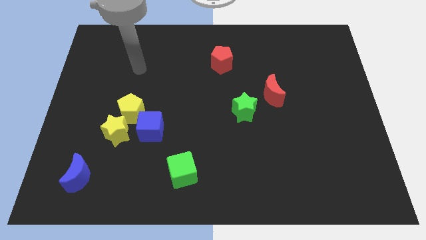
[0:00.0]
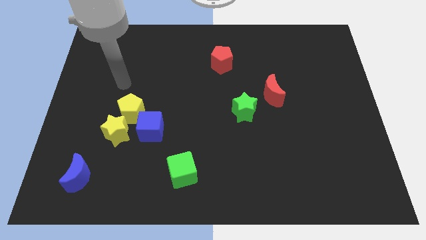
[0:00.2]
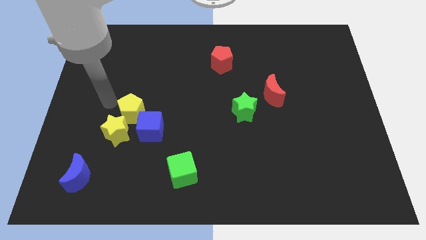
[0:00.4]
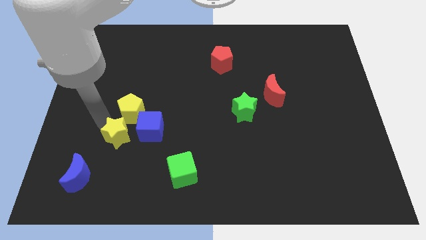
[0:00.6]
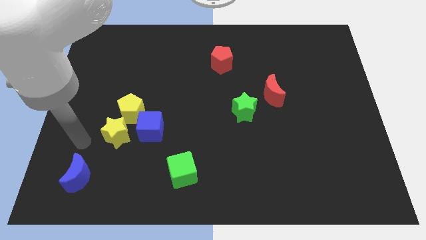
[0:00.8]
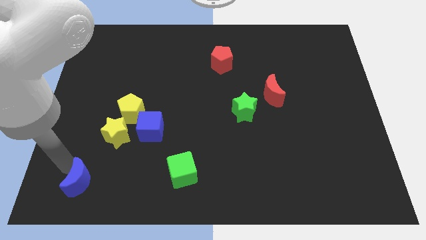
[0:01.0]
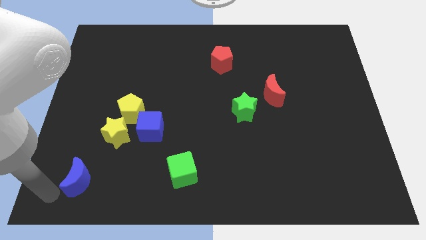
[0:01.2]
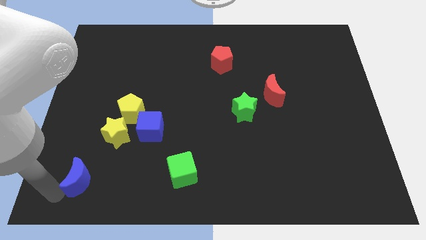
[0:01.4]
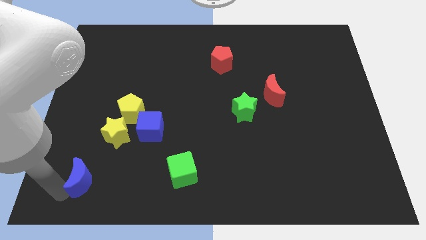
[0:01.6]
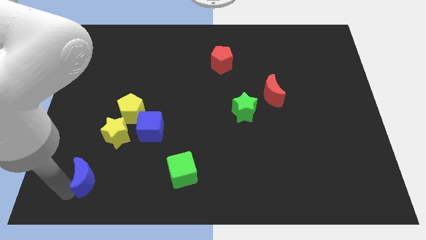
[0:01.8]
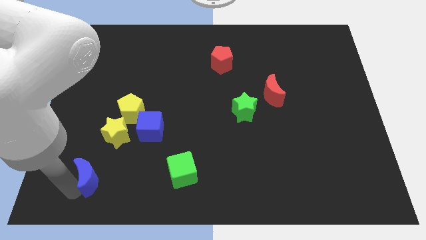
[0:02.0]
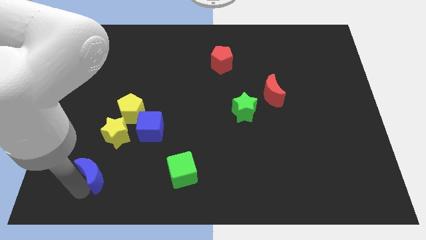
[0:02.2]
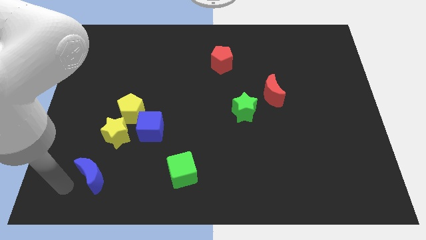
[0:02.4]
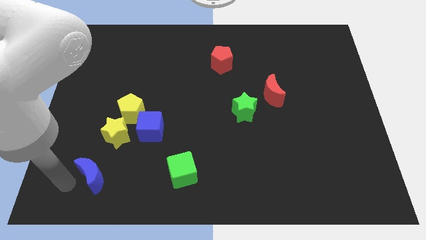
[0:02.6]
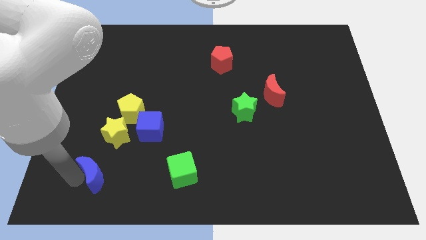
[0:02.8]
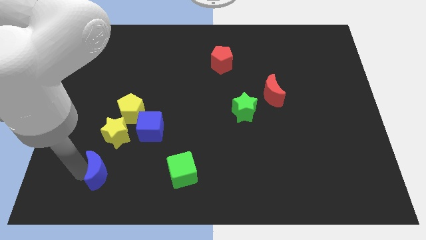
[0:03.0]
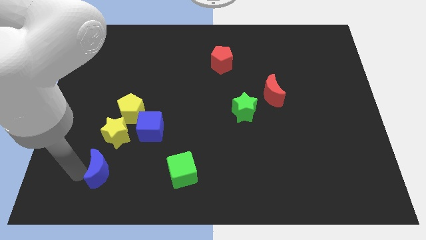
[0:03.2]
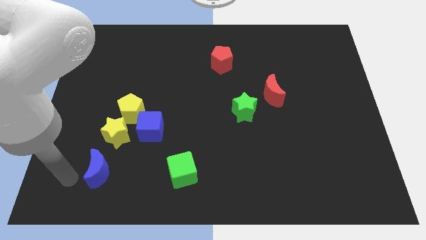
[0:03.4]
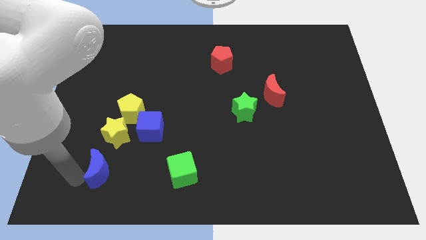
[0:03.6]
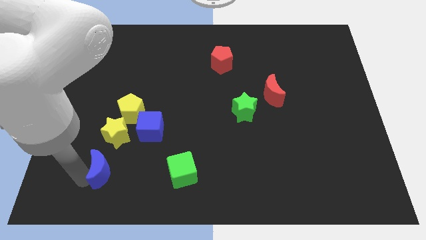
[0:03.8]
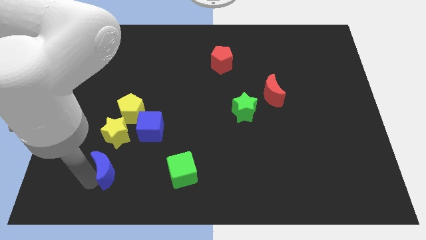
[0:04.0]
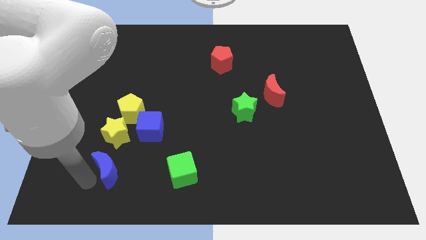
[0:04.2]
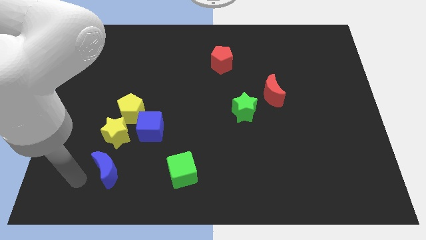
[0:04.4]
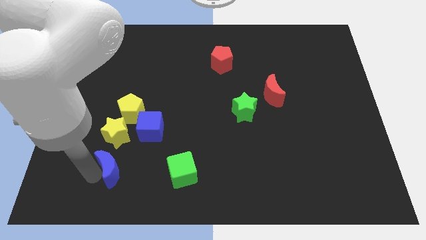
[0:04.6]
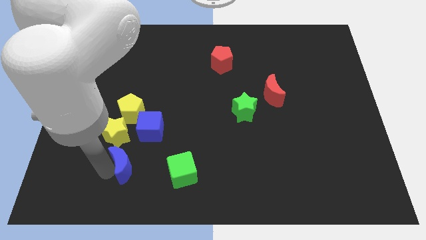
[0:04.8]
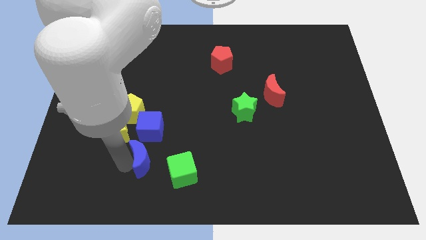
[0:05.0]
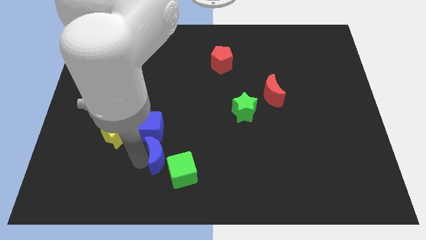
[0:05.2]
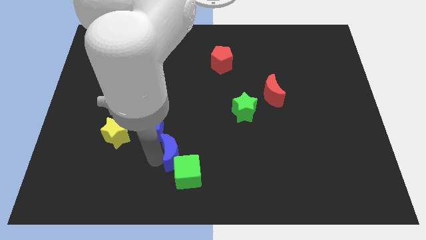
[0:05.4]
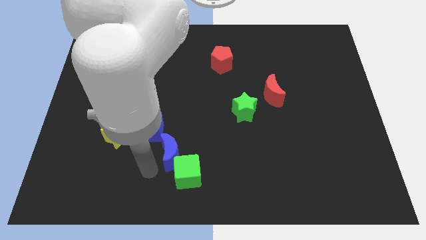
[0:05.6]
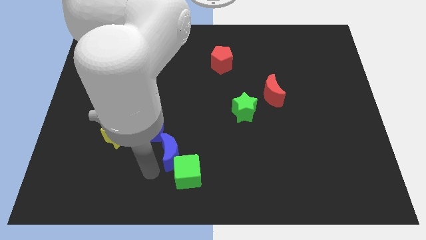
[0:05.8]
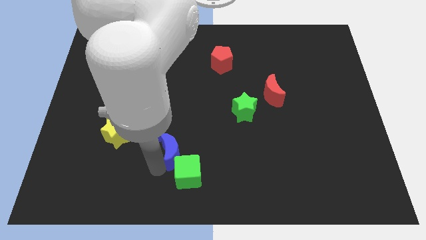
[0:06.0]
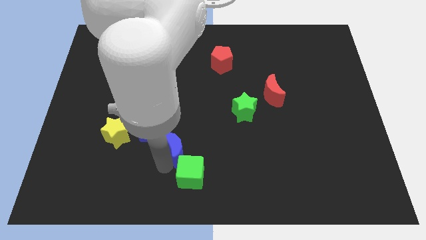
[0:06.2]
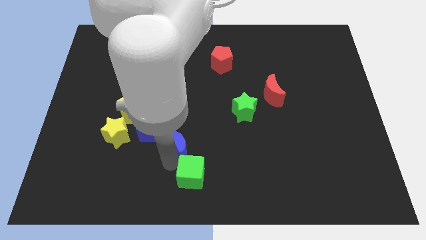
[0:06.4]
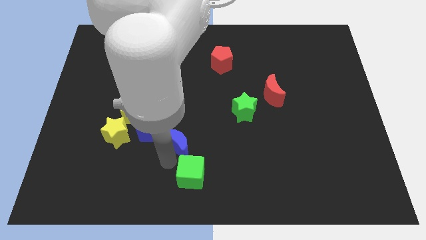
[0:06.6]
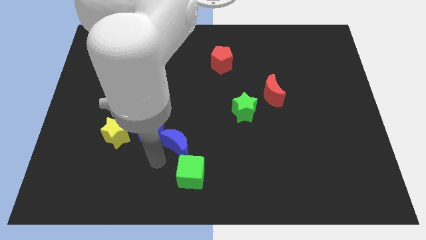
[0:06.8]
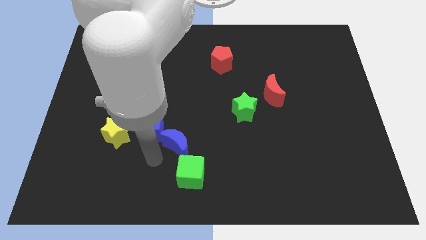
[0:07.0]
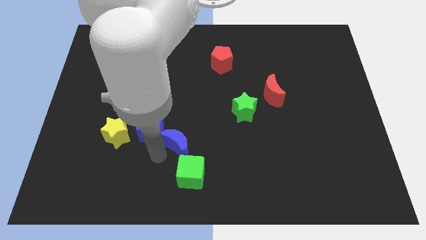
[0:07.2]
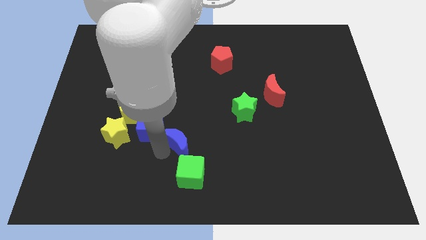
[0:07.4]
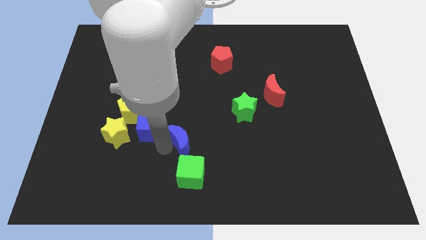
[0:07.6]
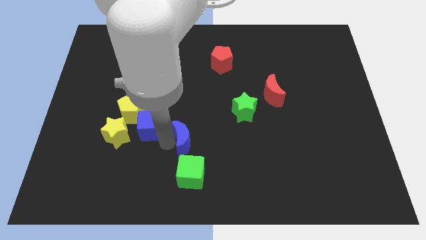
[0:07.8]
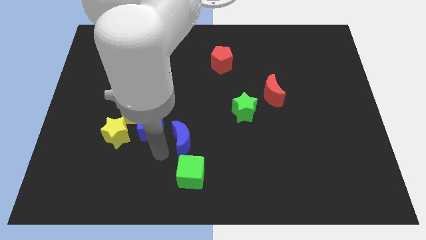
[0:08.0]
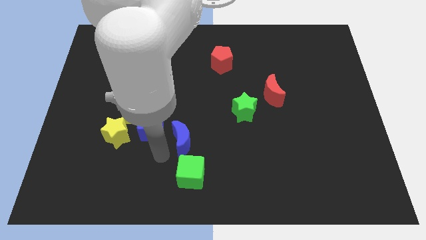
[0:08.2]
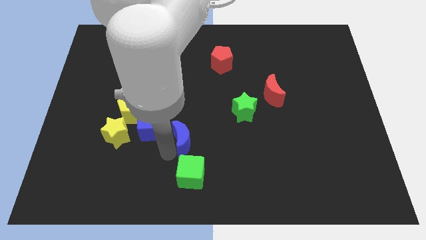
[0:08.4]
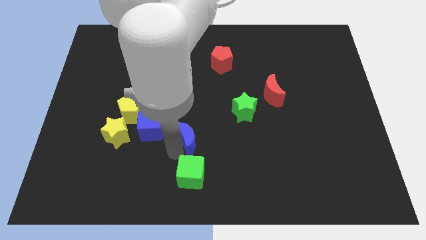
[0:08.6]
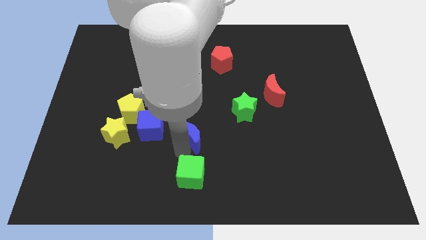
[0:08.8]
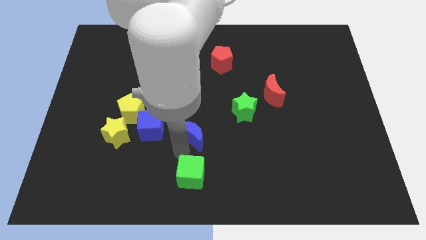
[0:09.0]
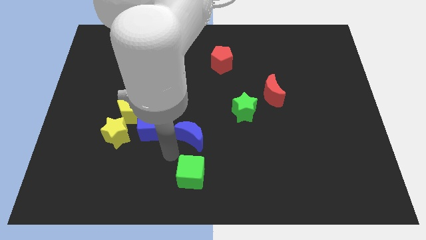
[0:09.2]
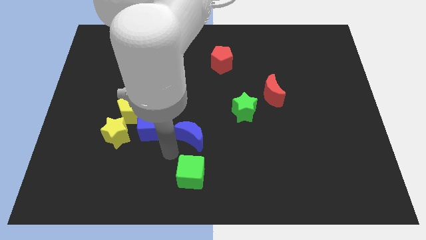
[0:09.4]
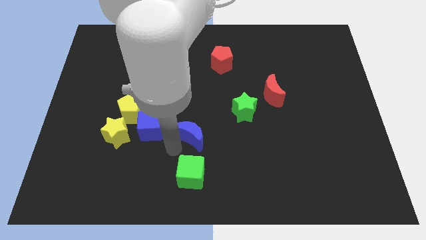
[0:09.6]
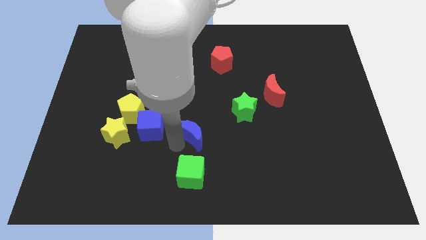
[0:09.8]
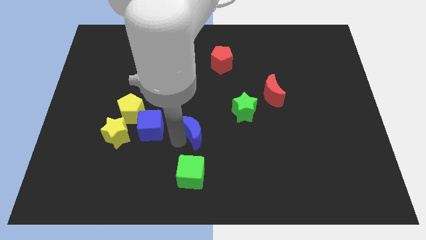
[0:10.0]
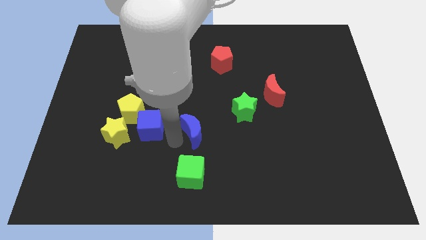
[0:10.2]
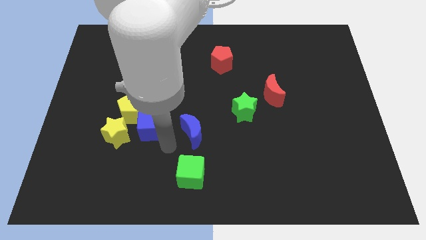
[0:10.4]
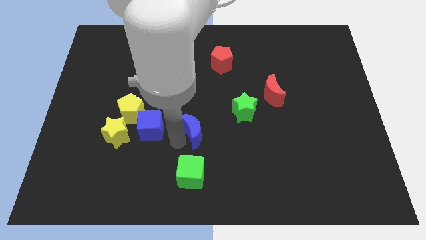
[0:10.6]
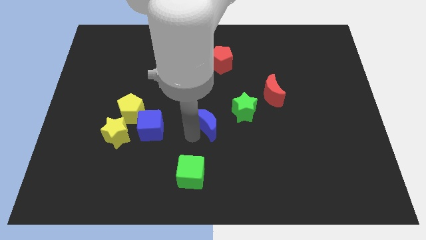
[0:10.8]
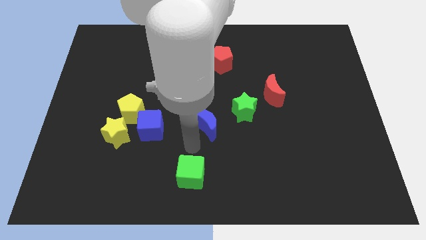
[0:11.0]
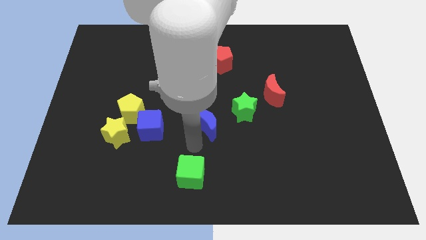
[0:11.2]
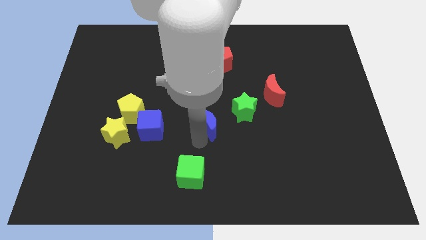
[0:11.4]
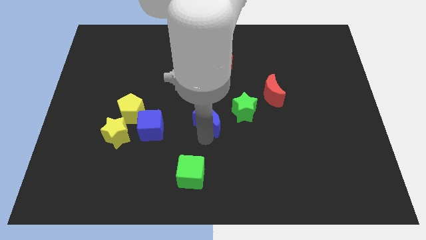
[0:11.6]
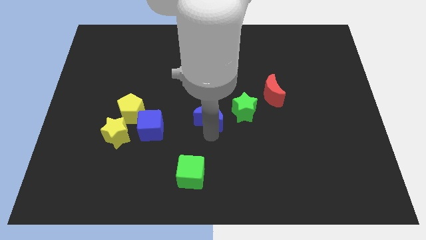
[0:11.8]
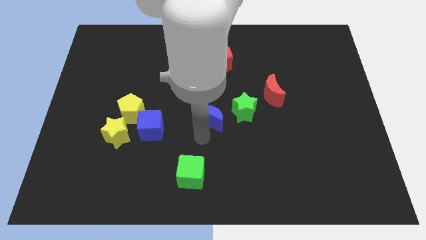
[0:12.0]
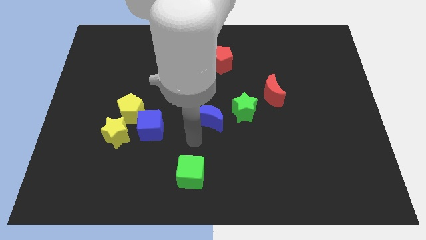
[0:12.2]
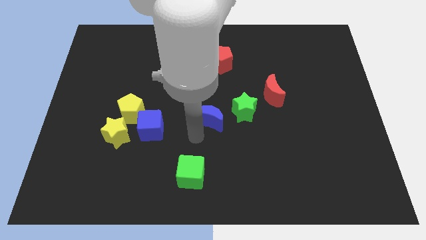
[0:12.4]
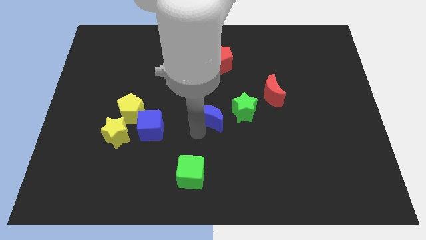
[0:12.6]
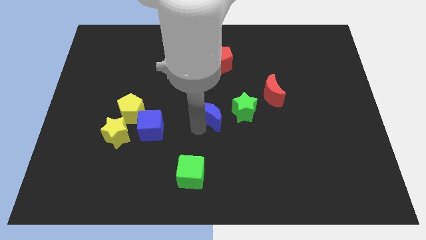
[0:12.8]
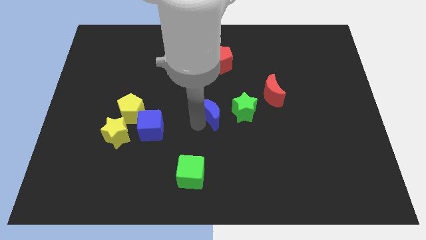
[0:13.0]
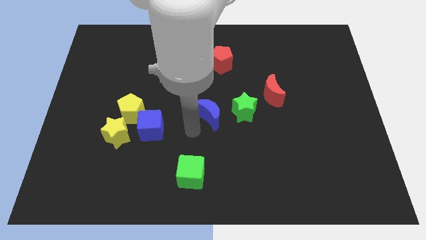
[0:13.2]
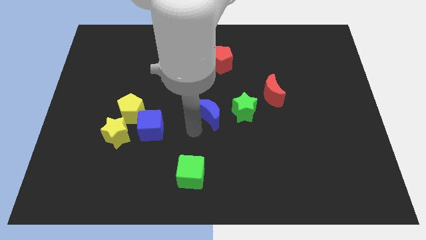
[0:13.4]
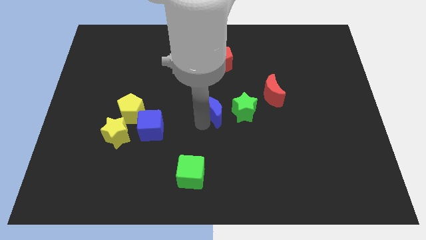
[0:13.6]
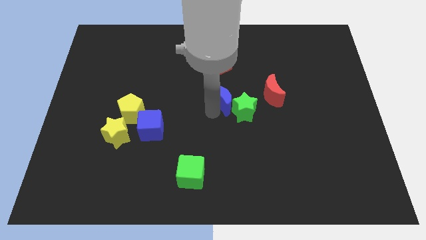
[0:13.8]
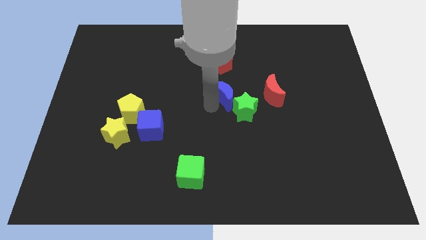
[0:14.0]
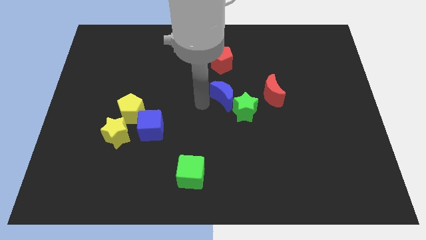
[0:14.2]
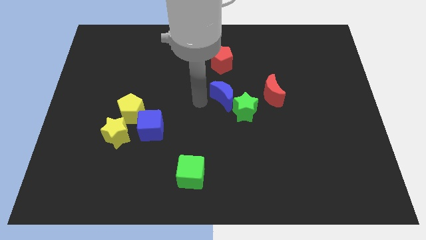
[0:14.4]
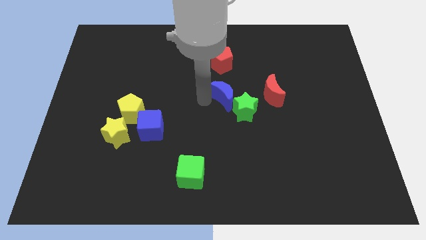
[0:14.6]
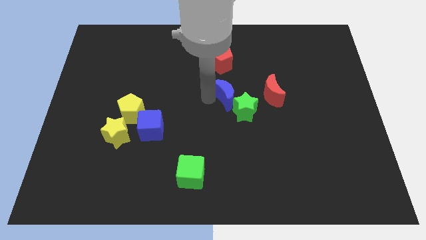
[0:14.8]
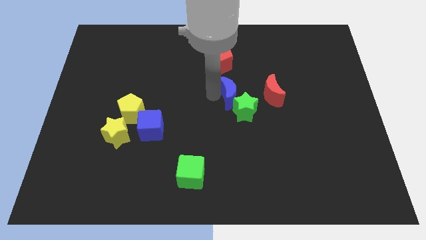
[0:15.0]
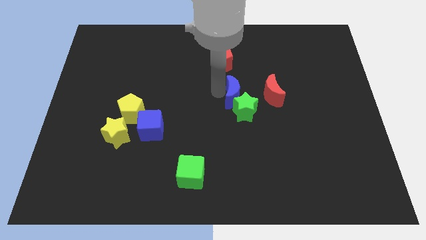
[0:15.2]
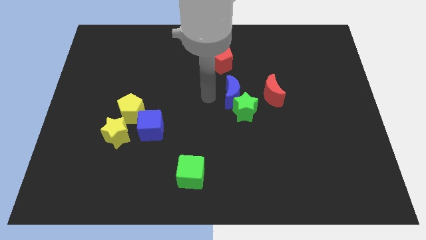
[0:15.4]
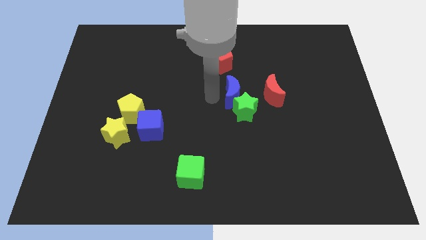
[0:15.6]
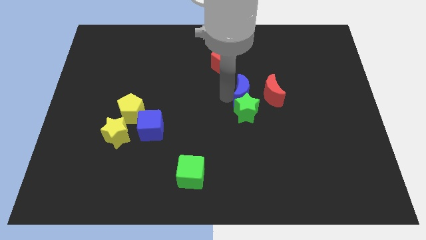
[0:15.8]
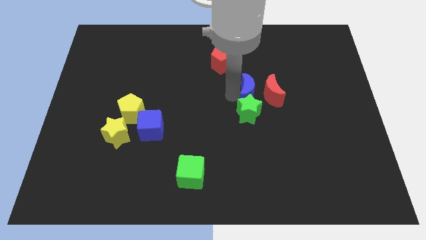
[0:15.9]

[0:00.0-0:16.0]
move the blue moon towards the red moon
